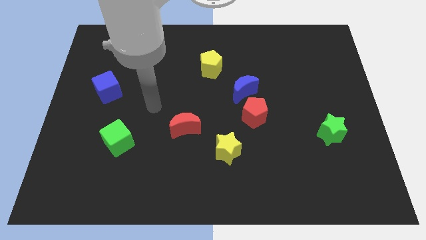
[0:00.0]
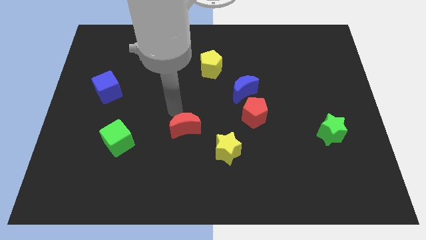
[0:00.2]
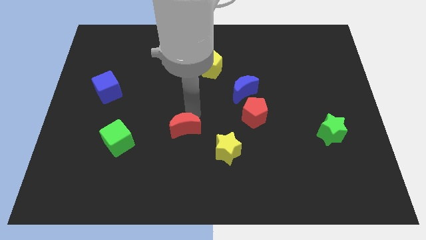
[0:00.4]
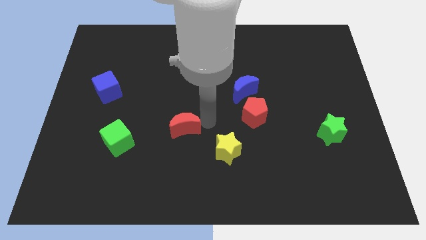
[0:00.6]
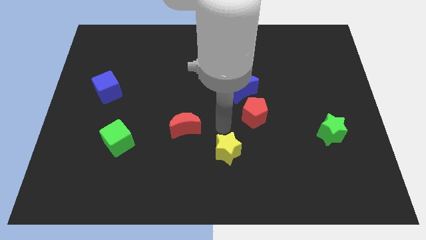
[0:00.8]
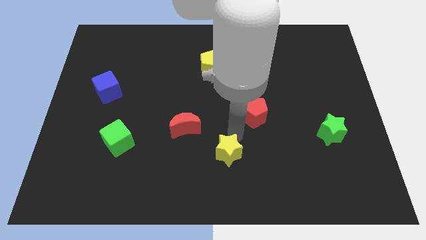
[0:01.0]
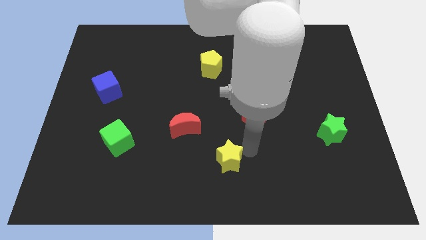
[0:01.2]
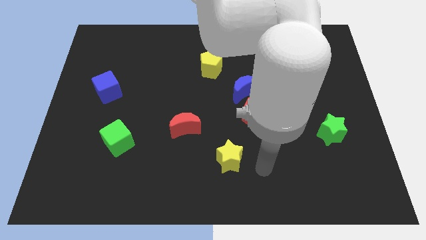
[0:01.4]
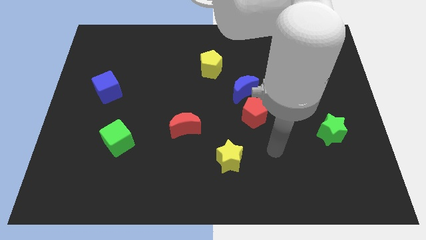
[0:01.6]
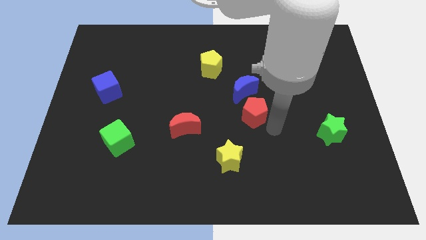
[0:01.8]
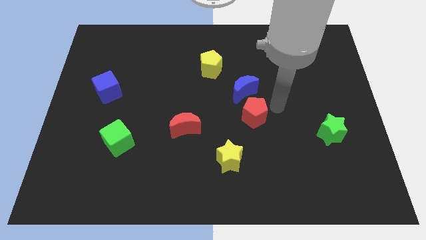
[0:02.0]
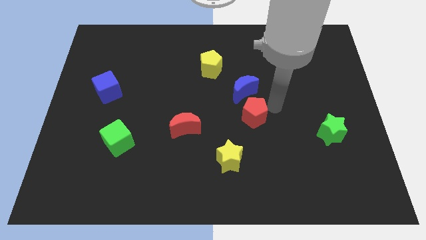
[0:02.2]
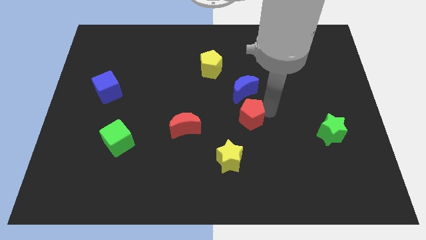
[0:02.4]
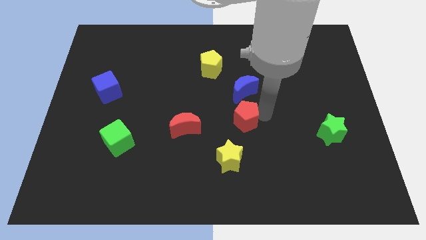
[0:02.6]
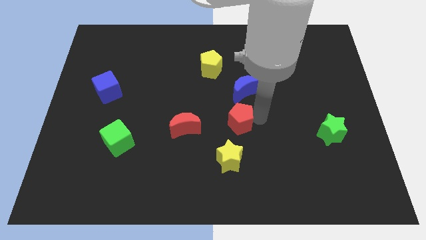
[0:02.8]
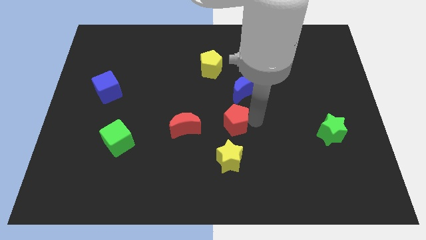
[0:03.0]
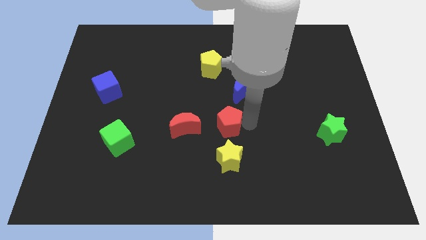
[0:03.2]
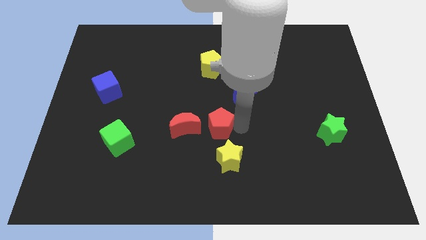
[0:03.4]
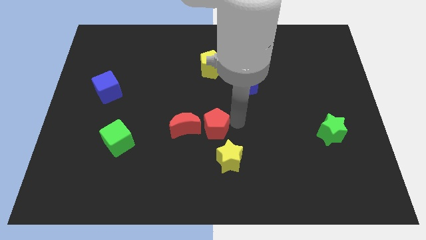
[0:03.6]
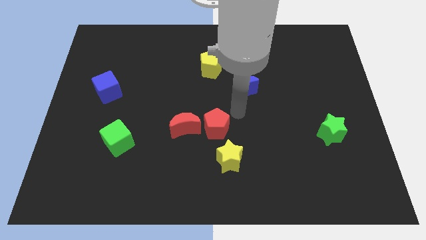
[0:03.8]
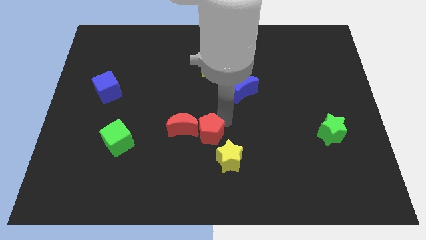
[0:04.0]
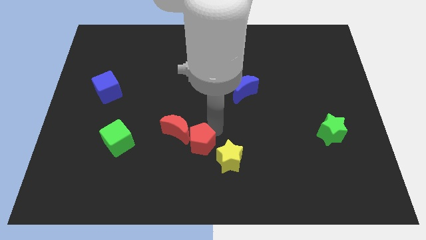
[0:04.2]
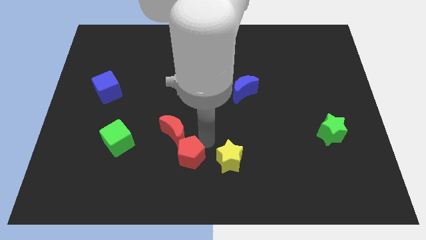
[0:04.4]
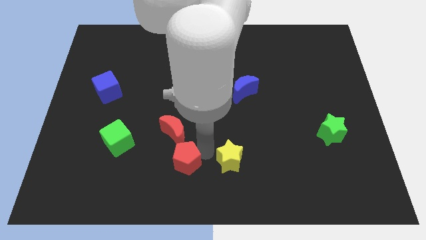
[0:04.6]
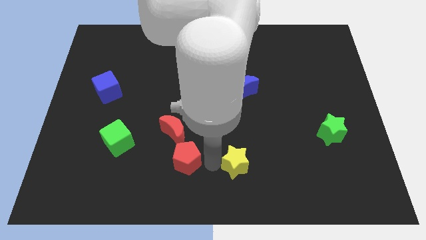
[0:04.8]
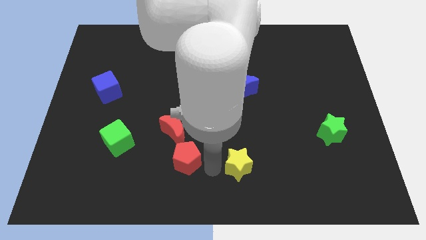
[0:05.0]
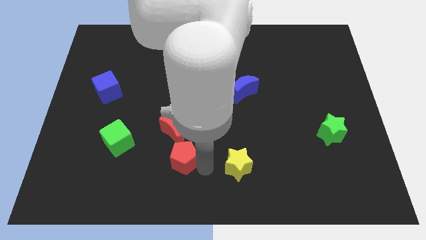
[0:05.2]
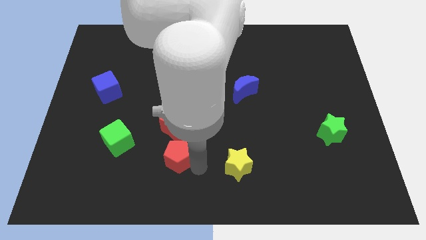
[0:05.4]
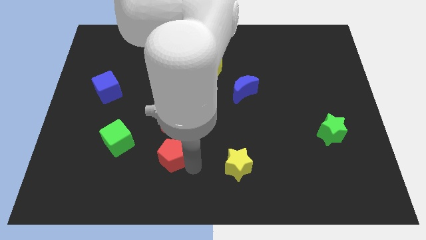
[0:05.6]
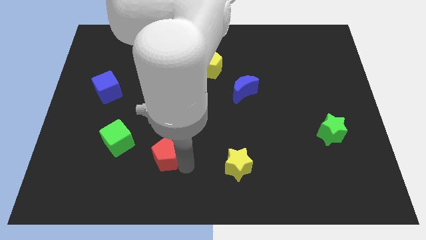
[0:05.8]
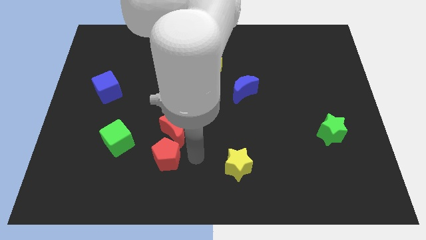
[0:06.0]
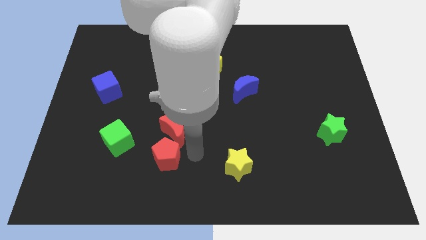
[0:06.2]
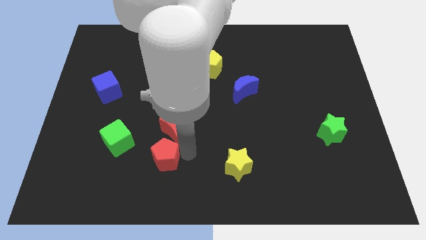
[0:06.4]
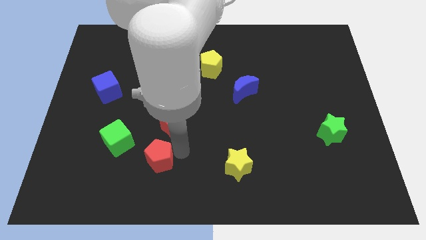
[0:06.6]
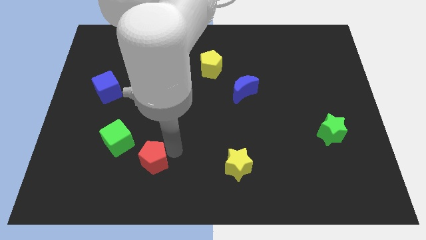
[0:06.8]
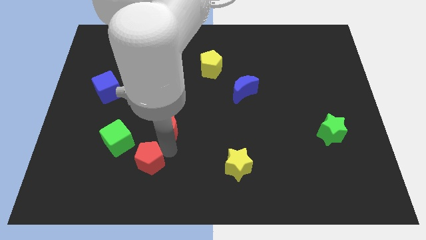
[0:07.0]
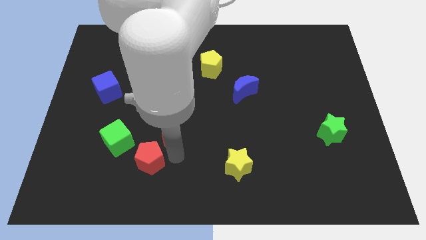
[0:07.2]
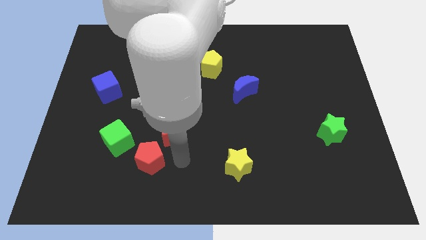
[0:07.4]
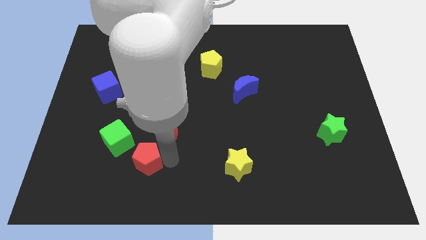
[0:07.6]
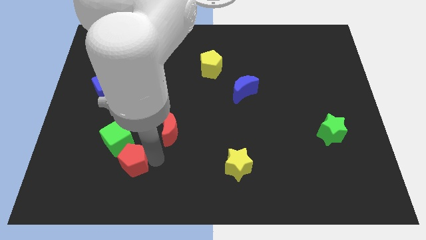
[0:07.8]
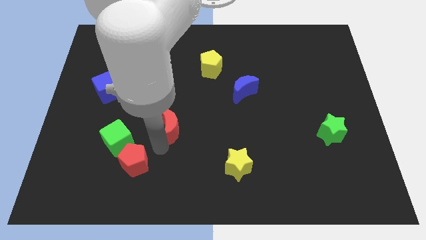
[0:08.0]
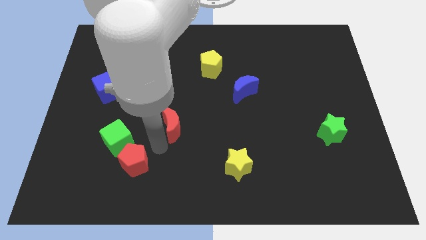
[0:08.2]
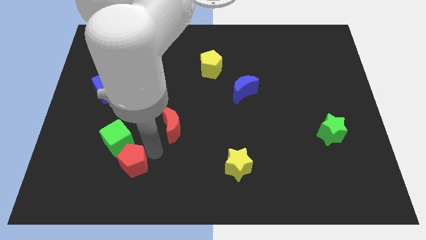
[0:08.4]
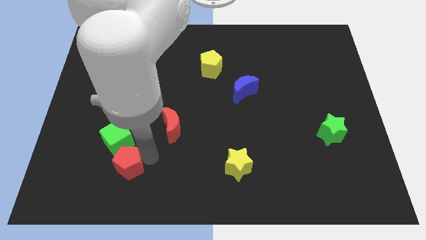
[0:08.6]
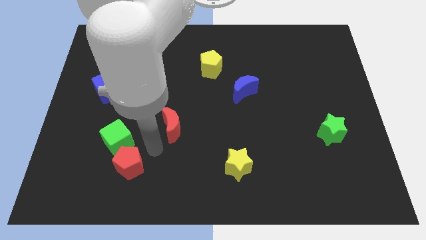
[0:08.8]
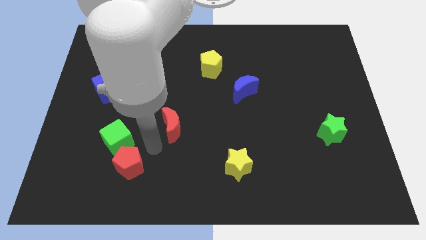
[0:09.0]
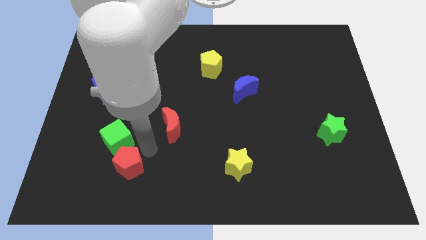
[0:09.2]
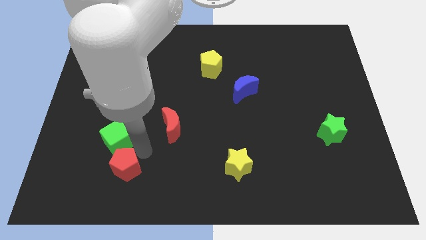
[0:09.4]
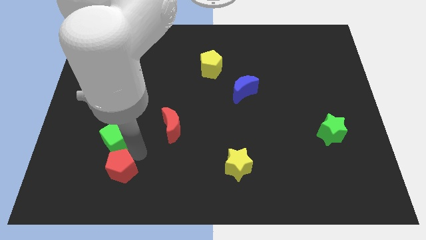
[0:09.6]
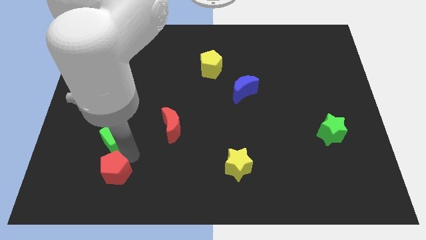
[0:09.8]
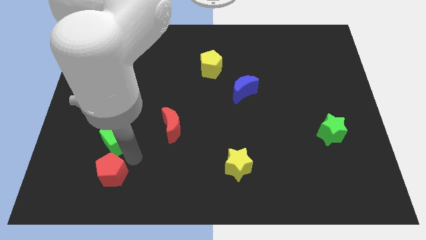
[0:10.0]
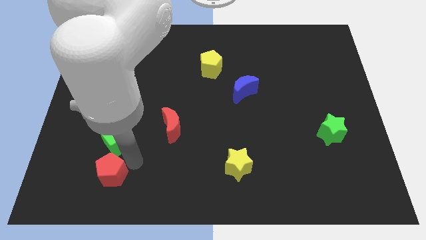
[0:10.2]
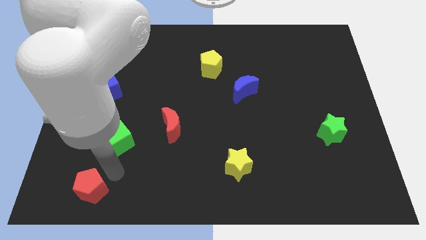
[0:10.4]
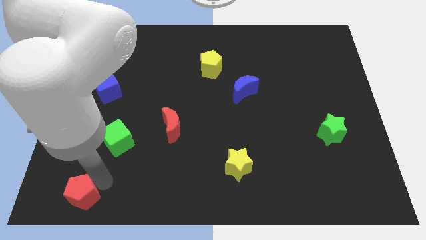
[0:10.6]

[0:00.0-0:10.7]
push the red pentagon to the bottom left
